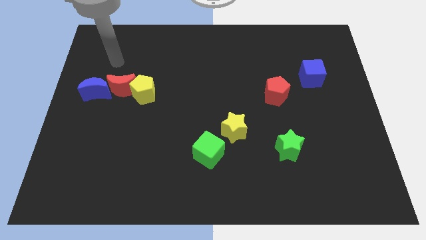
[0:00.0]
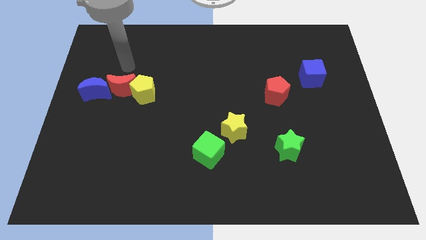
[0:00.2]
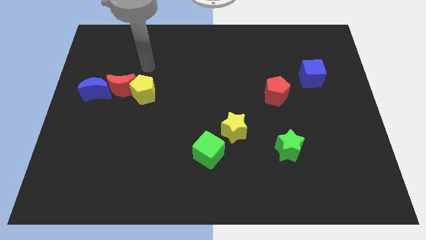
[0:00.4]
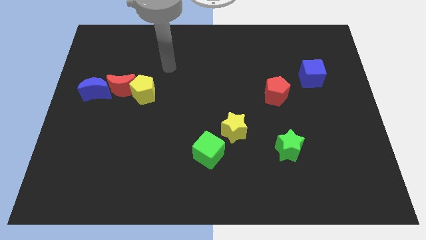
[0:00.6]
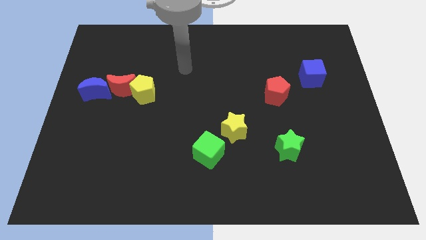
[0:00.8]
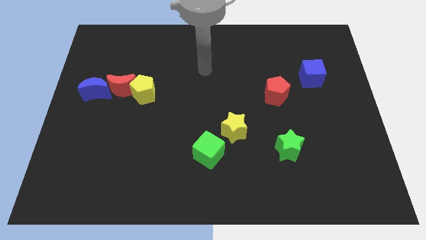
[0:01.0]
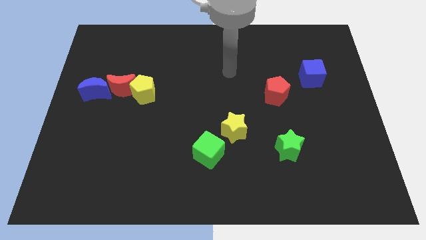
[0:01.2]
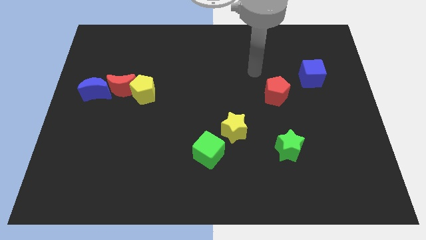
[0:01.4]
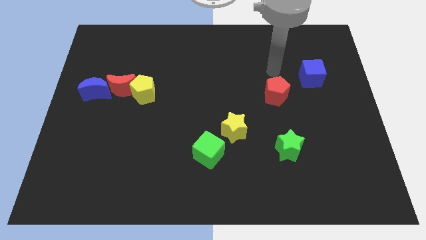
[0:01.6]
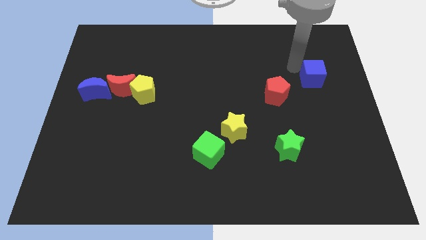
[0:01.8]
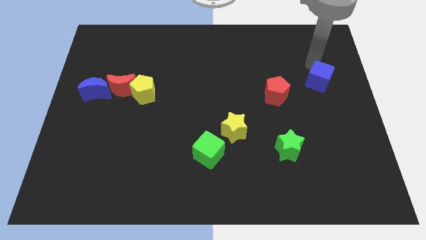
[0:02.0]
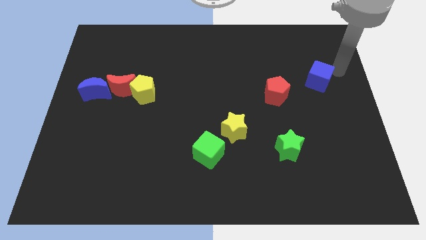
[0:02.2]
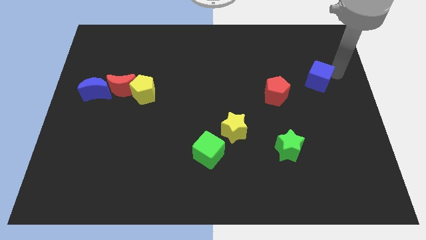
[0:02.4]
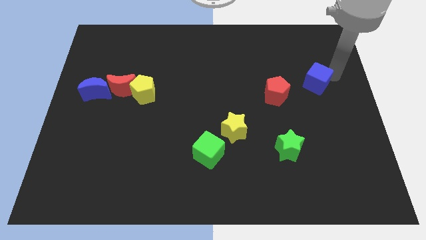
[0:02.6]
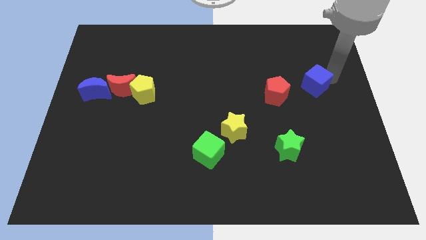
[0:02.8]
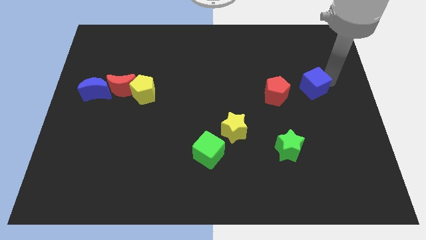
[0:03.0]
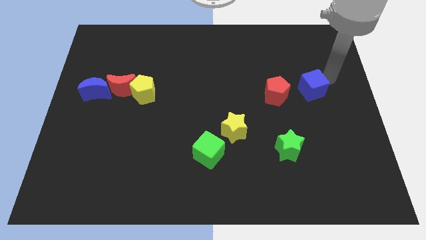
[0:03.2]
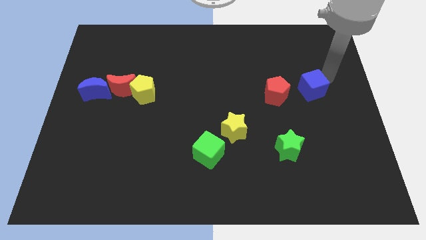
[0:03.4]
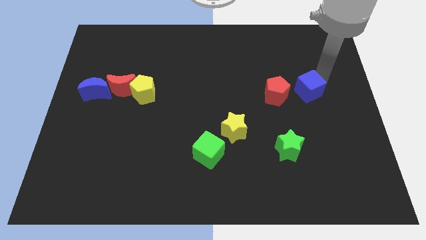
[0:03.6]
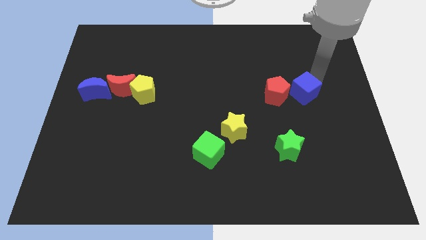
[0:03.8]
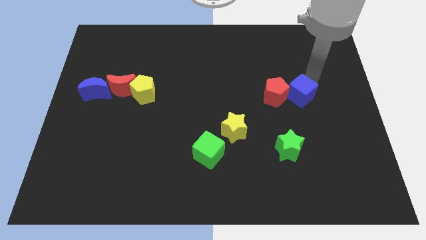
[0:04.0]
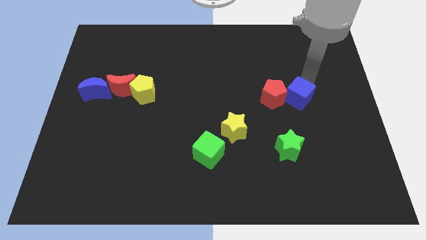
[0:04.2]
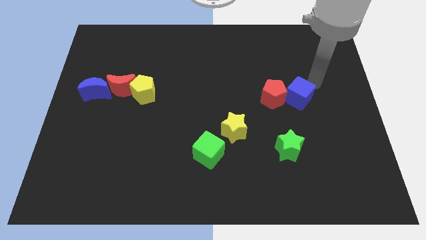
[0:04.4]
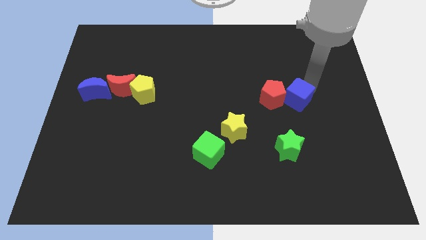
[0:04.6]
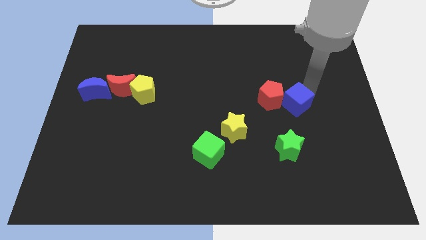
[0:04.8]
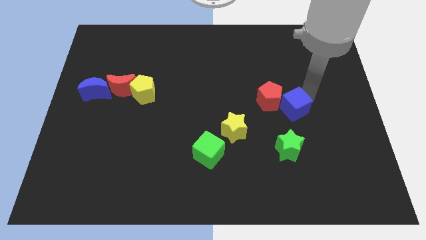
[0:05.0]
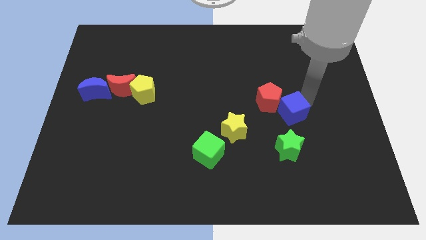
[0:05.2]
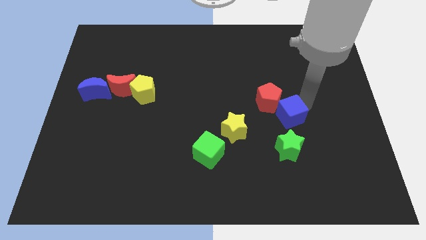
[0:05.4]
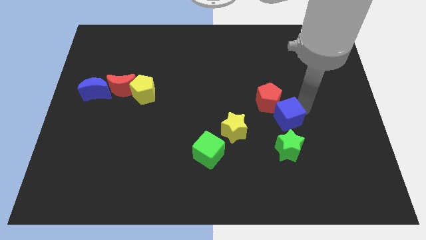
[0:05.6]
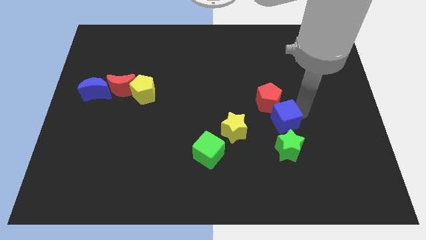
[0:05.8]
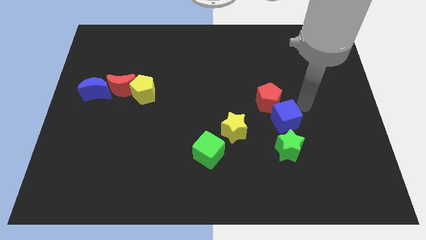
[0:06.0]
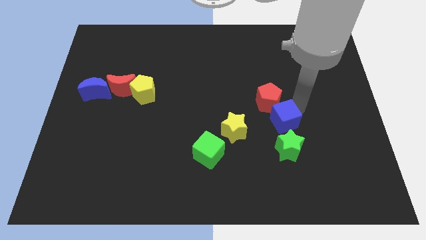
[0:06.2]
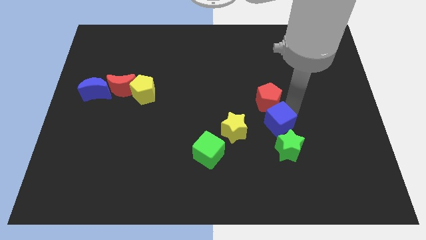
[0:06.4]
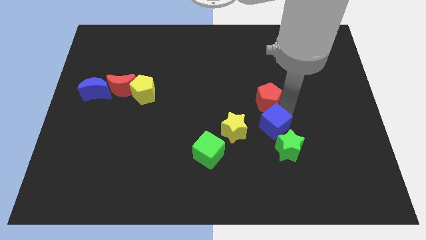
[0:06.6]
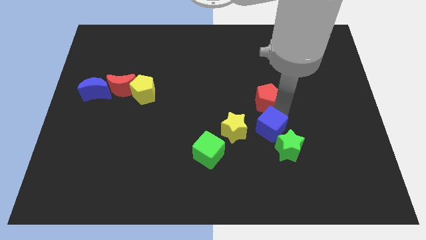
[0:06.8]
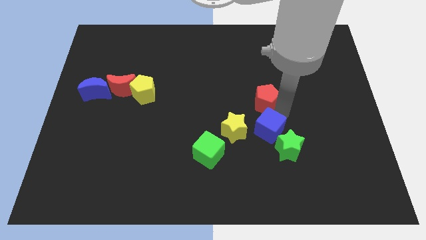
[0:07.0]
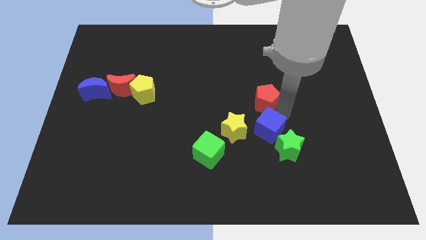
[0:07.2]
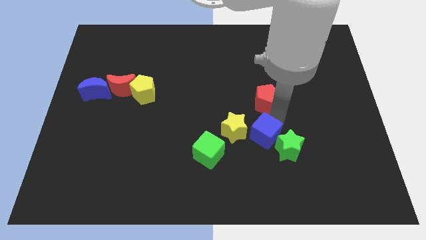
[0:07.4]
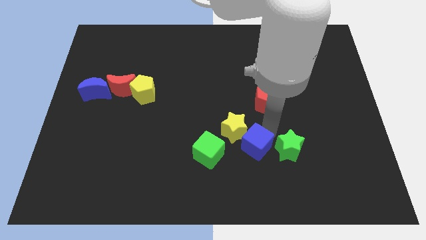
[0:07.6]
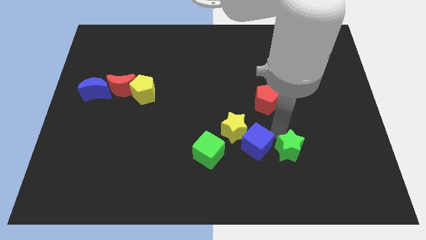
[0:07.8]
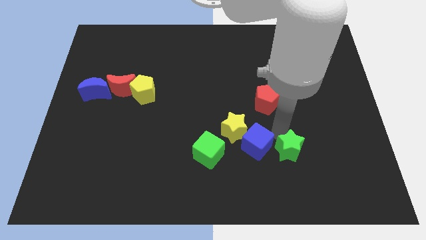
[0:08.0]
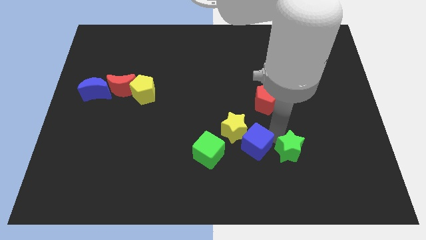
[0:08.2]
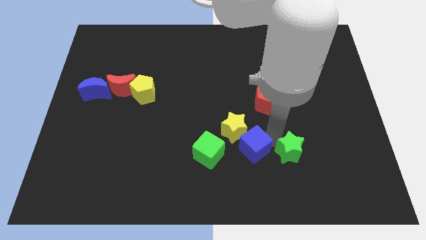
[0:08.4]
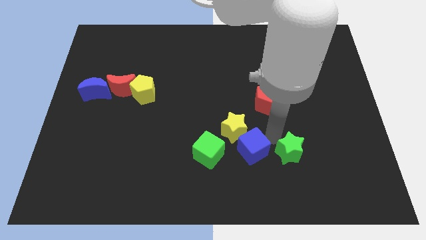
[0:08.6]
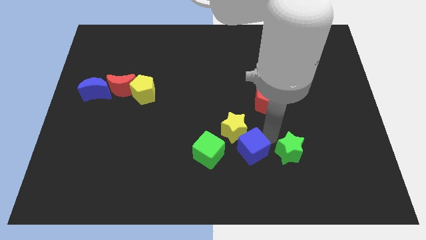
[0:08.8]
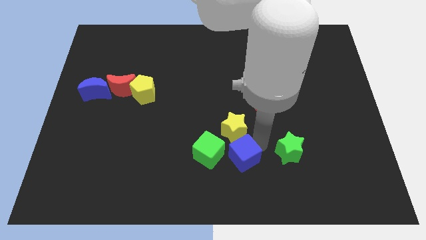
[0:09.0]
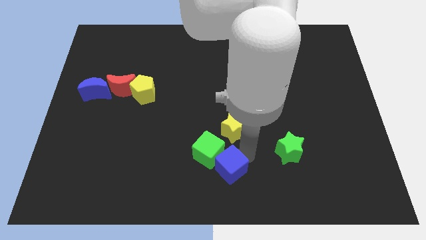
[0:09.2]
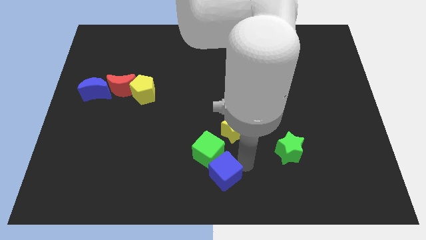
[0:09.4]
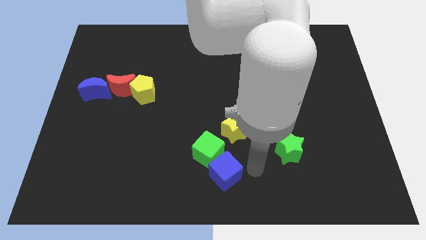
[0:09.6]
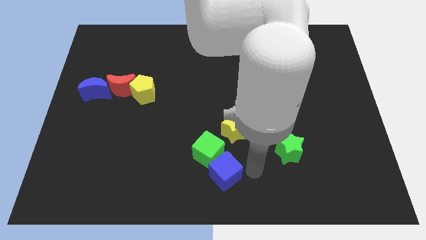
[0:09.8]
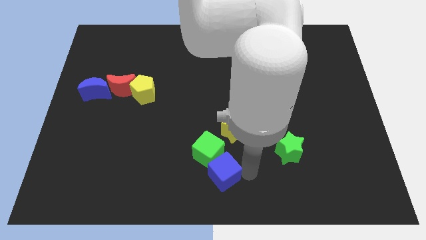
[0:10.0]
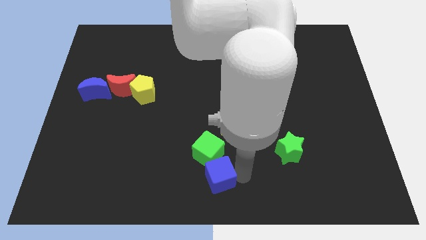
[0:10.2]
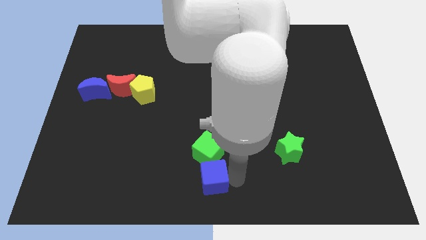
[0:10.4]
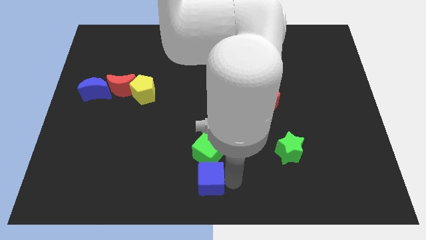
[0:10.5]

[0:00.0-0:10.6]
slide the blue cube to the bottom left side of the green cube

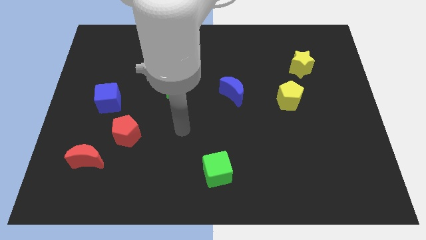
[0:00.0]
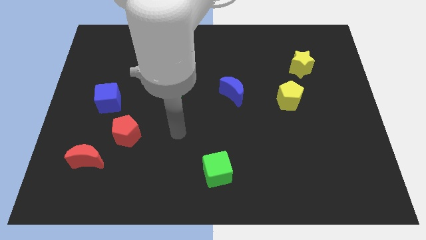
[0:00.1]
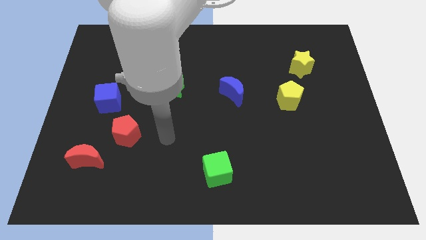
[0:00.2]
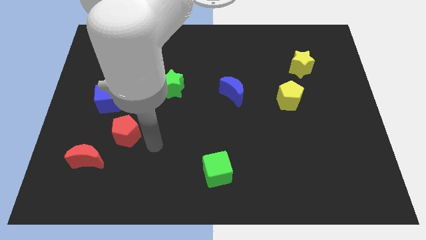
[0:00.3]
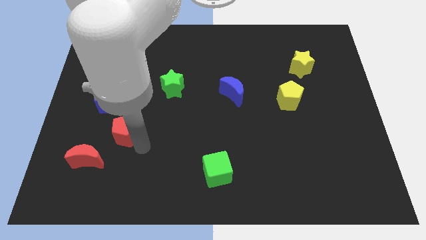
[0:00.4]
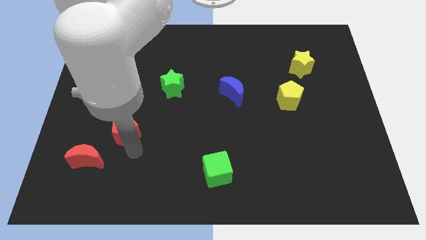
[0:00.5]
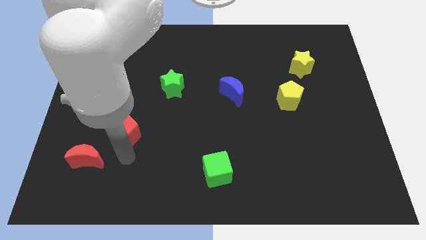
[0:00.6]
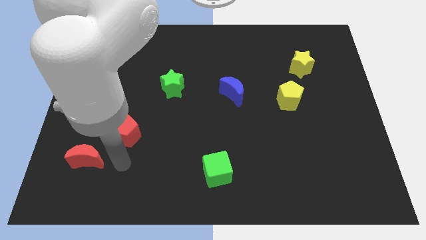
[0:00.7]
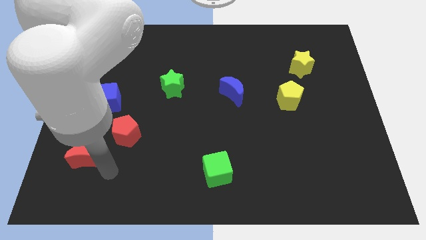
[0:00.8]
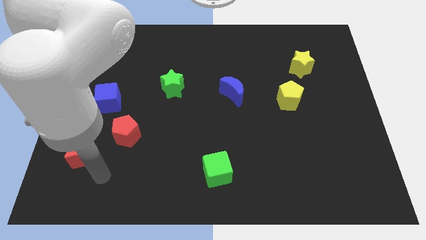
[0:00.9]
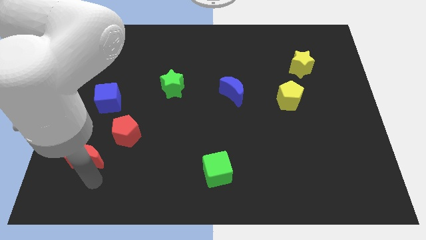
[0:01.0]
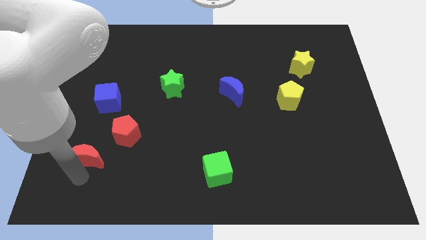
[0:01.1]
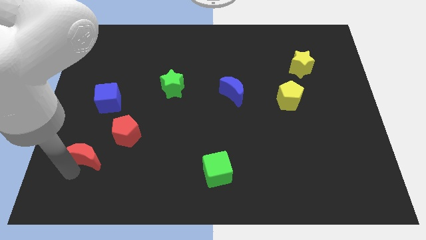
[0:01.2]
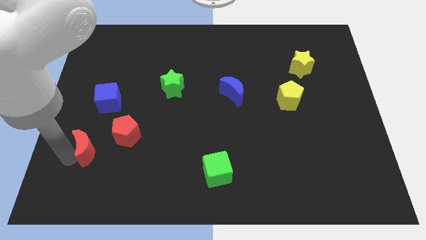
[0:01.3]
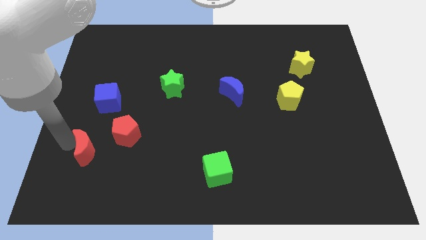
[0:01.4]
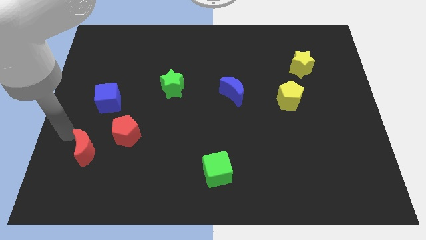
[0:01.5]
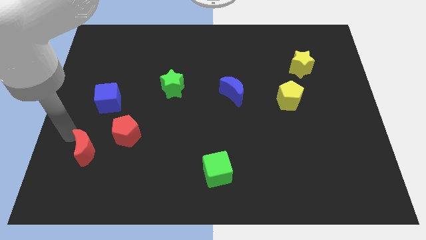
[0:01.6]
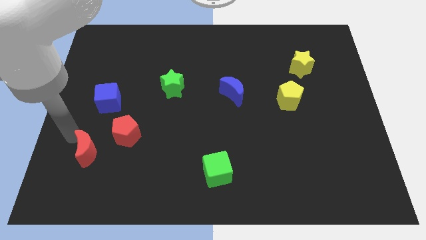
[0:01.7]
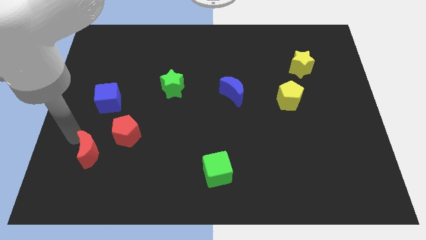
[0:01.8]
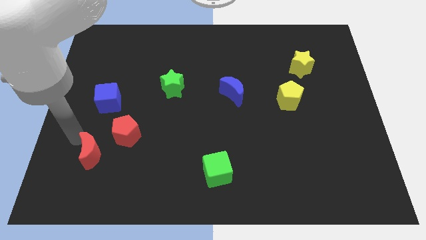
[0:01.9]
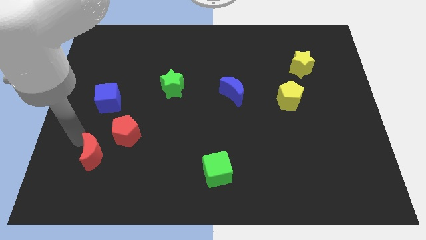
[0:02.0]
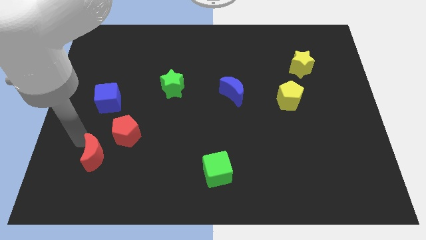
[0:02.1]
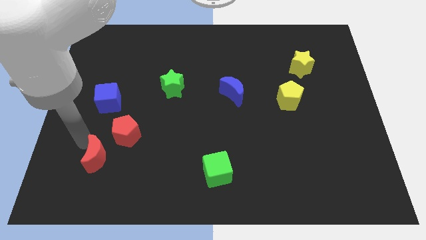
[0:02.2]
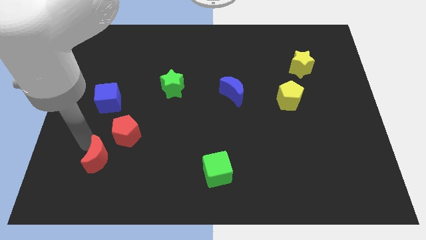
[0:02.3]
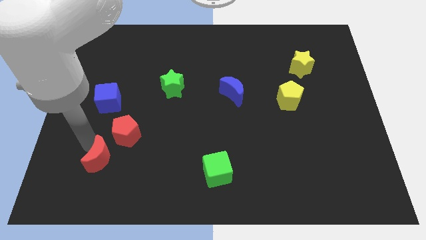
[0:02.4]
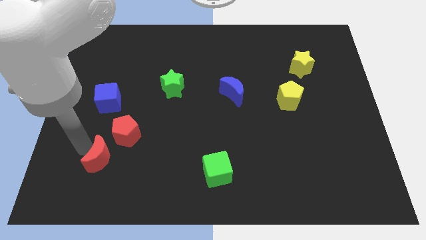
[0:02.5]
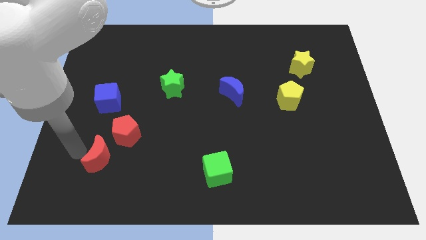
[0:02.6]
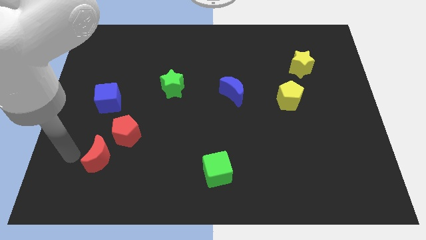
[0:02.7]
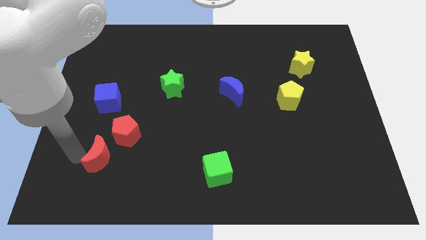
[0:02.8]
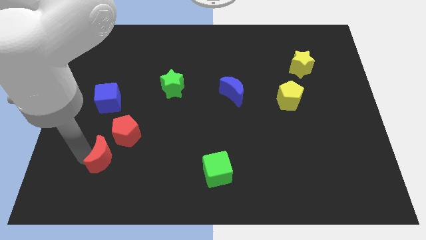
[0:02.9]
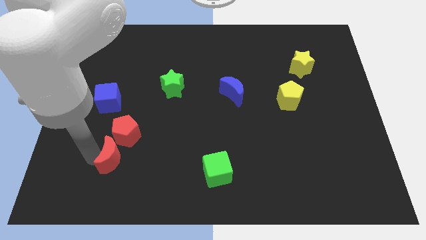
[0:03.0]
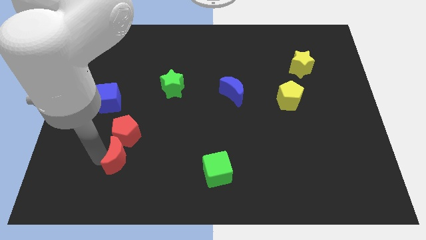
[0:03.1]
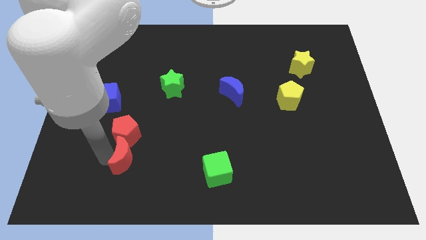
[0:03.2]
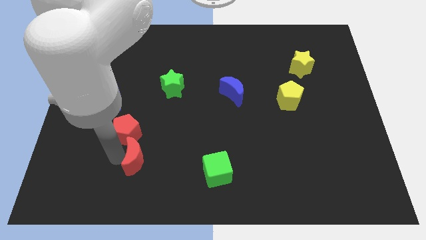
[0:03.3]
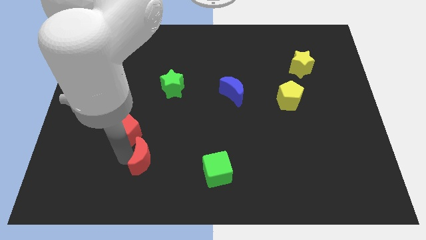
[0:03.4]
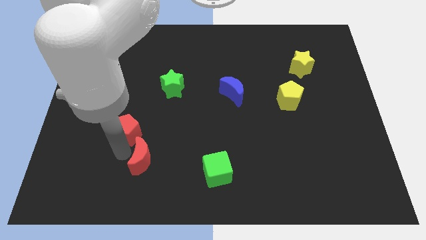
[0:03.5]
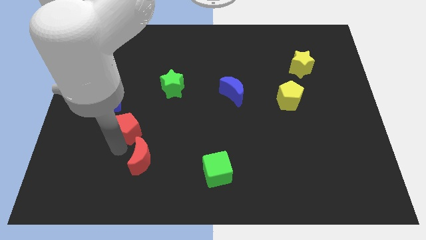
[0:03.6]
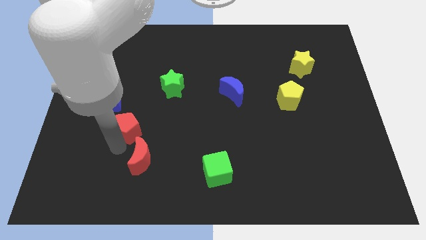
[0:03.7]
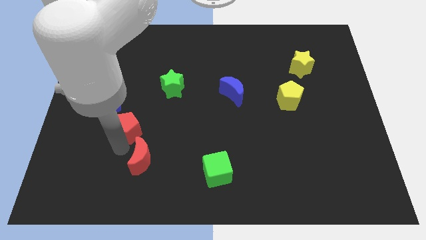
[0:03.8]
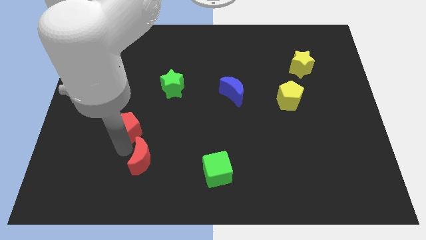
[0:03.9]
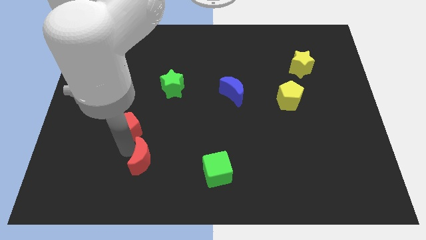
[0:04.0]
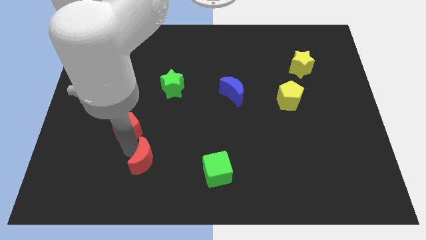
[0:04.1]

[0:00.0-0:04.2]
put the red moon left of the green cube
